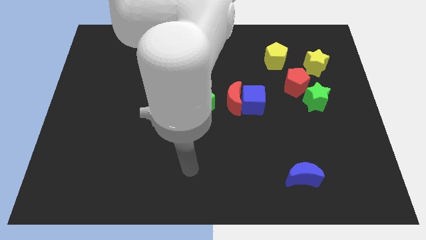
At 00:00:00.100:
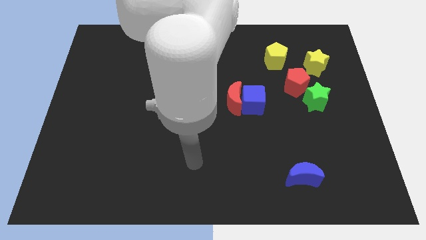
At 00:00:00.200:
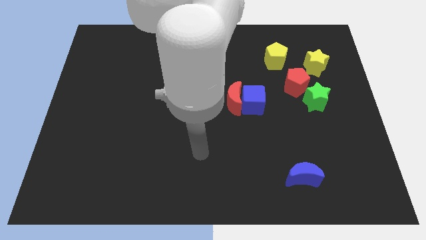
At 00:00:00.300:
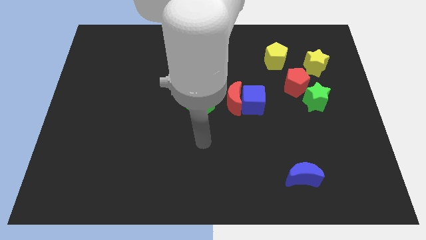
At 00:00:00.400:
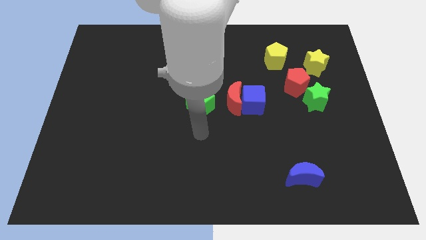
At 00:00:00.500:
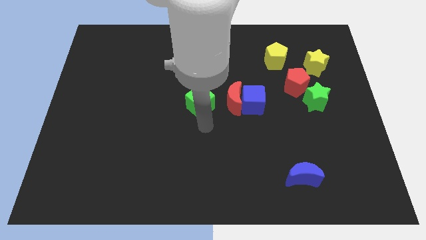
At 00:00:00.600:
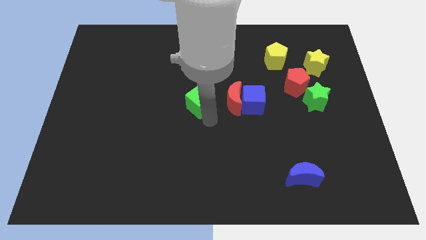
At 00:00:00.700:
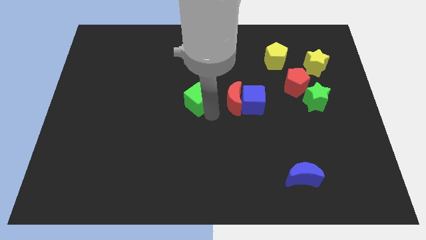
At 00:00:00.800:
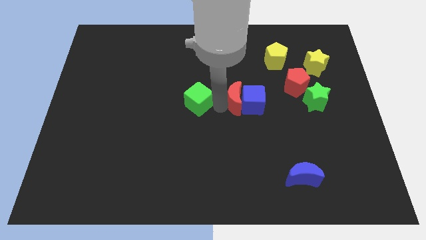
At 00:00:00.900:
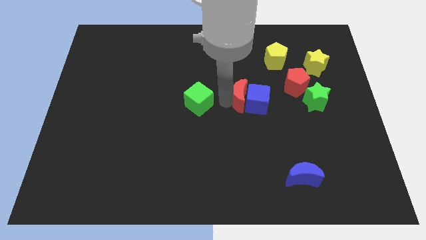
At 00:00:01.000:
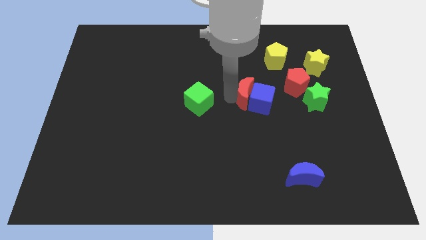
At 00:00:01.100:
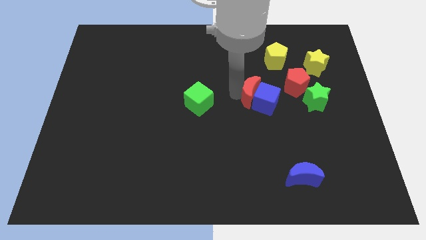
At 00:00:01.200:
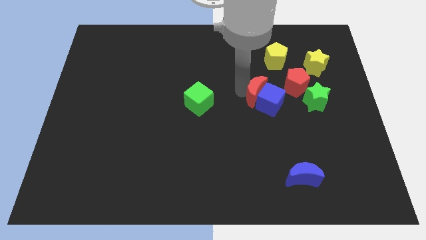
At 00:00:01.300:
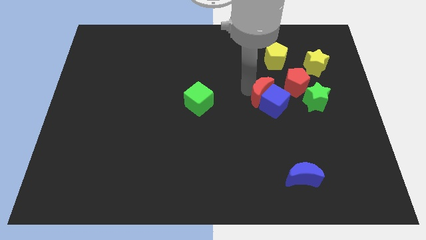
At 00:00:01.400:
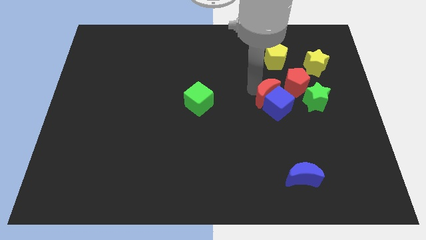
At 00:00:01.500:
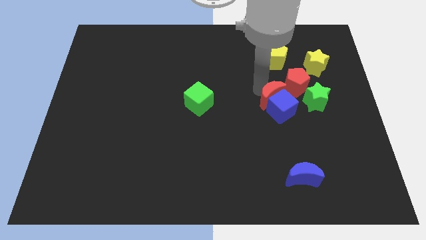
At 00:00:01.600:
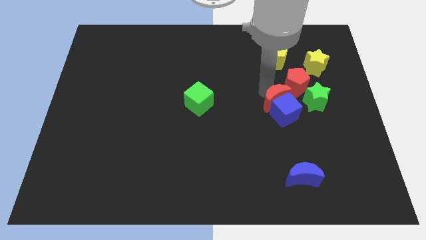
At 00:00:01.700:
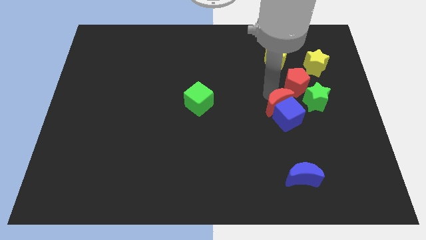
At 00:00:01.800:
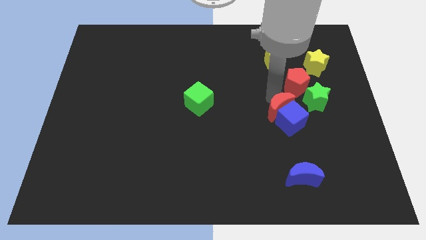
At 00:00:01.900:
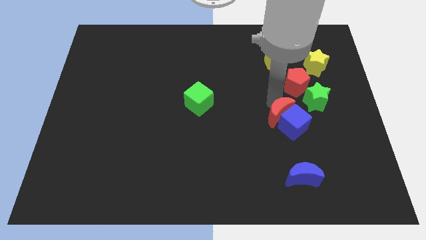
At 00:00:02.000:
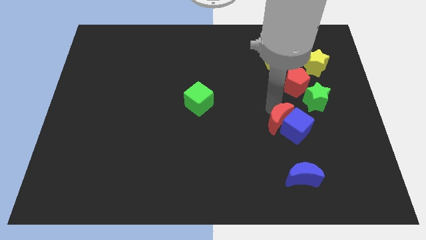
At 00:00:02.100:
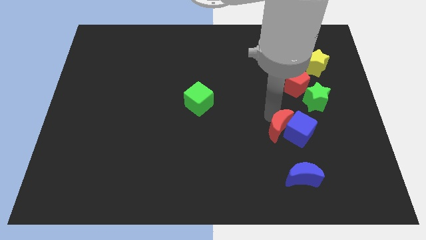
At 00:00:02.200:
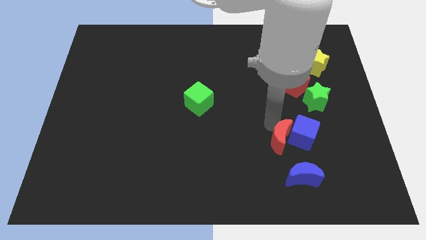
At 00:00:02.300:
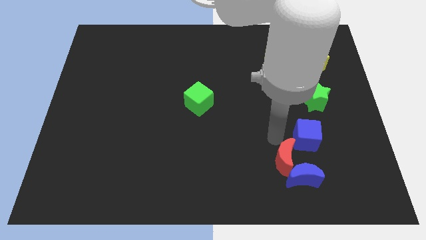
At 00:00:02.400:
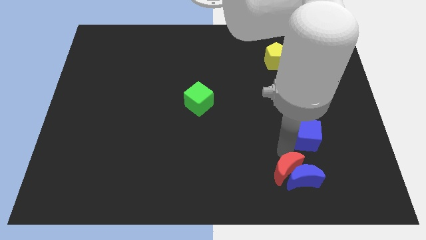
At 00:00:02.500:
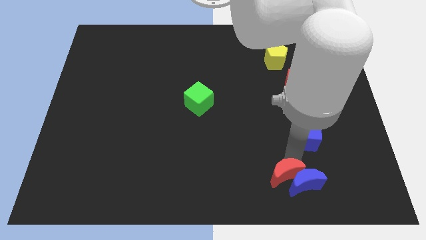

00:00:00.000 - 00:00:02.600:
pull the blue cube apart from the red moon

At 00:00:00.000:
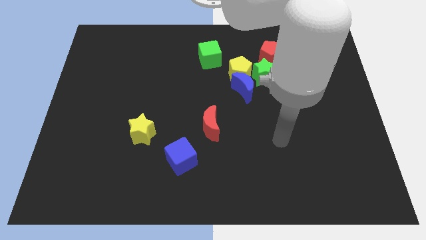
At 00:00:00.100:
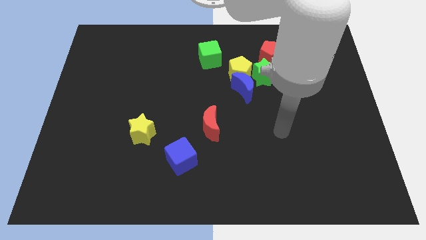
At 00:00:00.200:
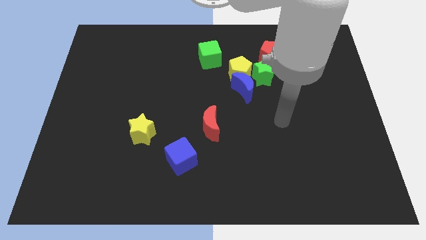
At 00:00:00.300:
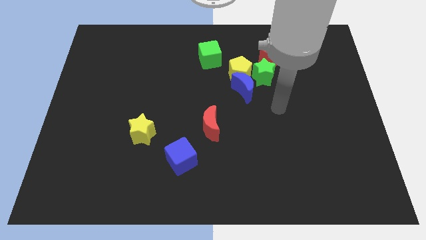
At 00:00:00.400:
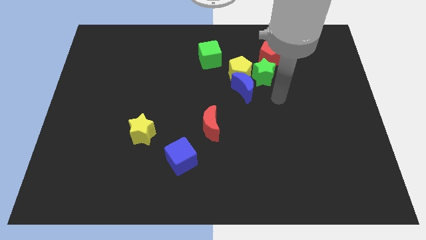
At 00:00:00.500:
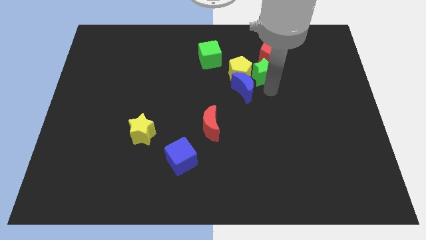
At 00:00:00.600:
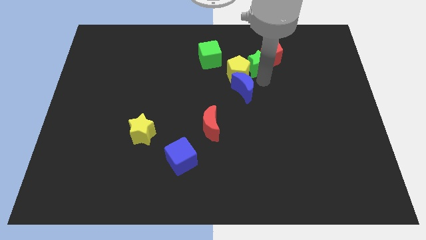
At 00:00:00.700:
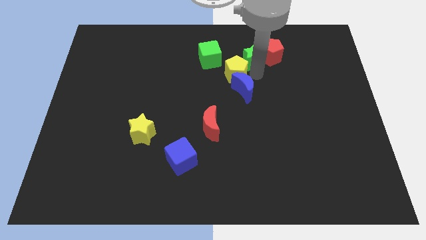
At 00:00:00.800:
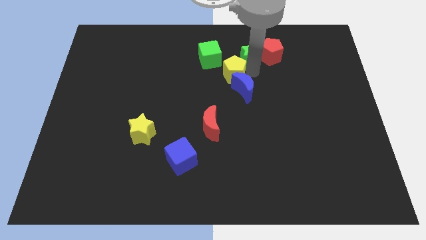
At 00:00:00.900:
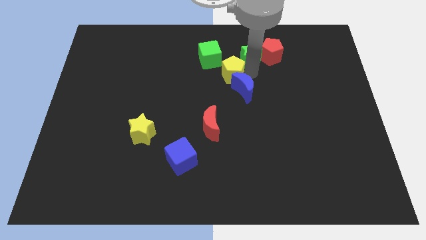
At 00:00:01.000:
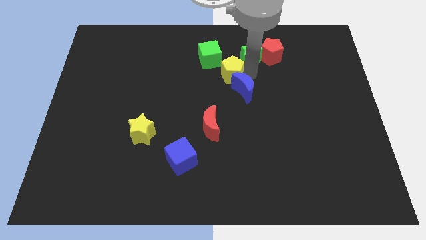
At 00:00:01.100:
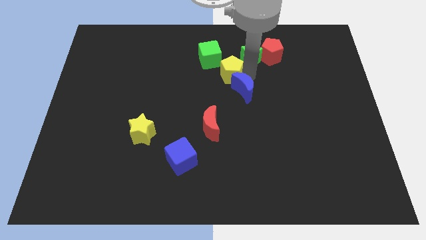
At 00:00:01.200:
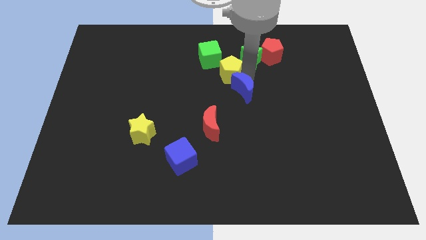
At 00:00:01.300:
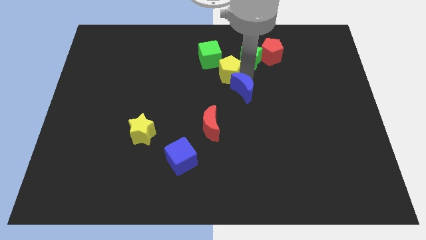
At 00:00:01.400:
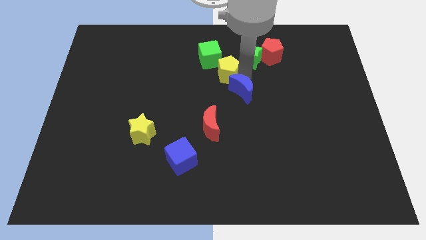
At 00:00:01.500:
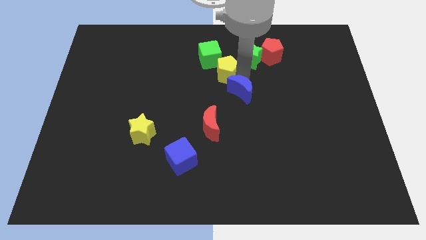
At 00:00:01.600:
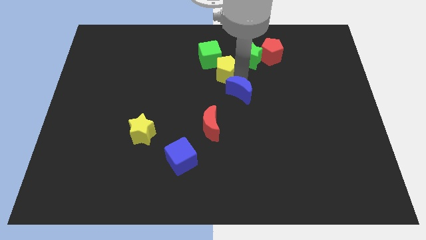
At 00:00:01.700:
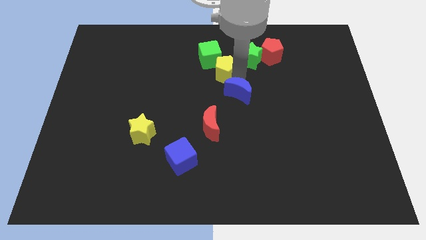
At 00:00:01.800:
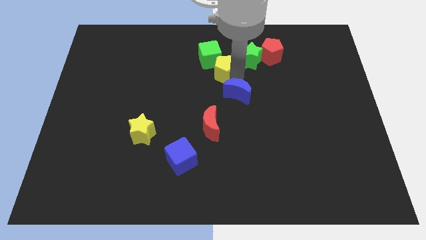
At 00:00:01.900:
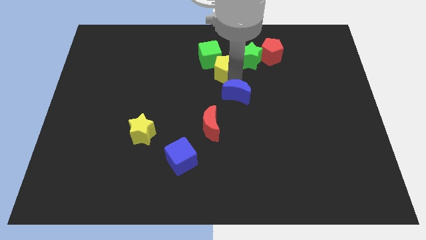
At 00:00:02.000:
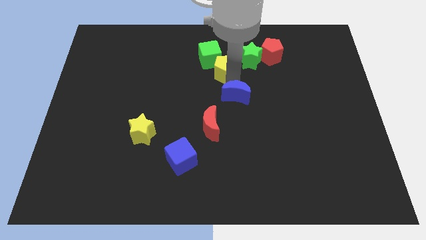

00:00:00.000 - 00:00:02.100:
pull the blue moon apart from the yellow pentagon and green star

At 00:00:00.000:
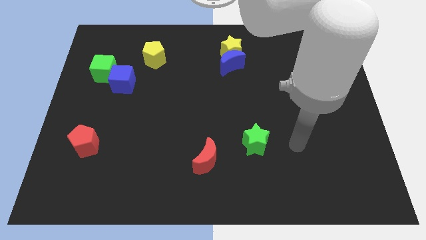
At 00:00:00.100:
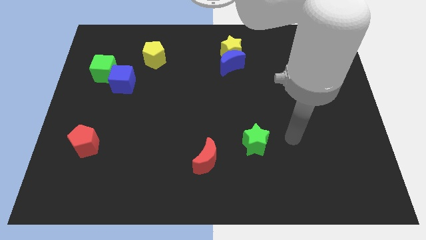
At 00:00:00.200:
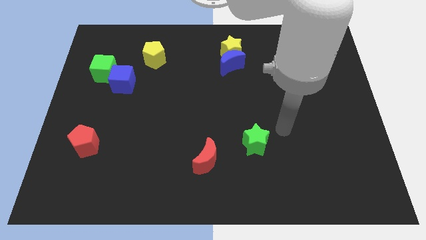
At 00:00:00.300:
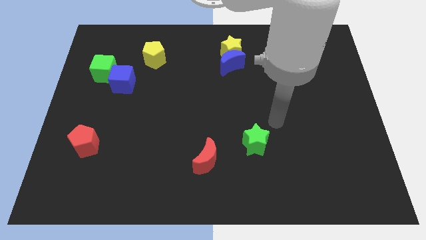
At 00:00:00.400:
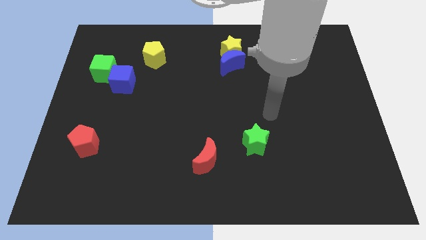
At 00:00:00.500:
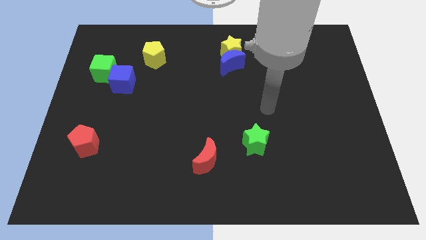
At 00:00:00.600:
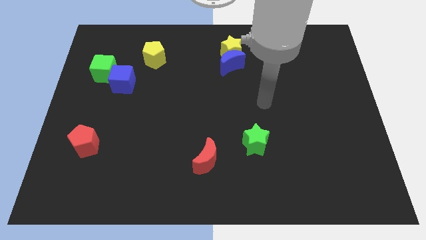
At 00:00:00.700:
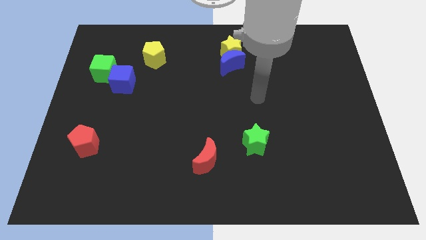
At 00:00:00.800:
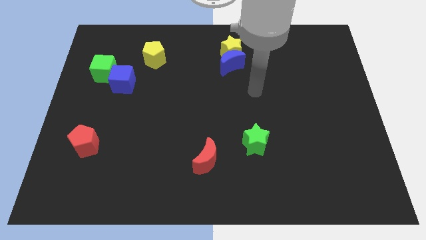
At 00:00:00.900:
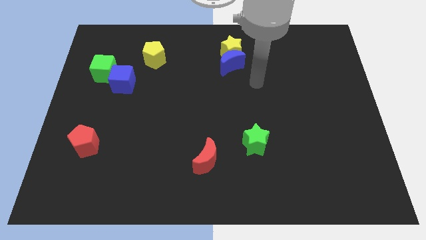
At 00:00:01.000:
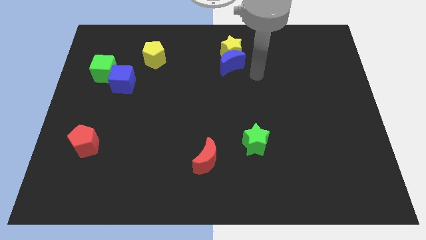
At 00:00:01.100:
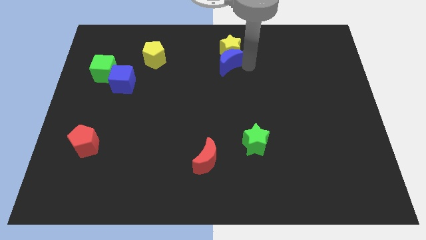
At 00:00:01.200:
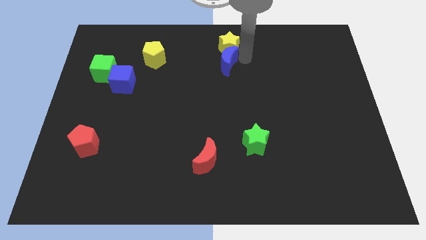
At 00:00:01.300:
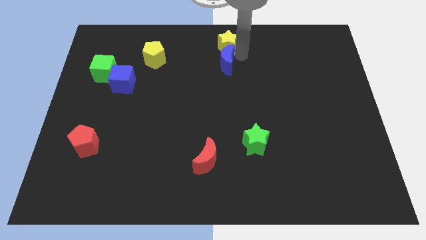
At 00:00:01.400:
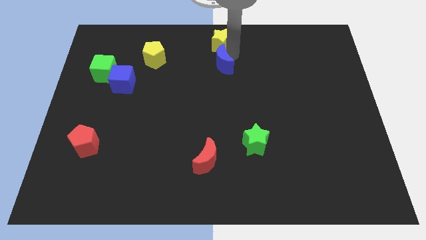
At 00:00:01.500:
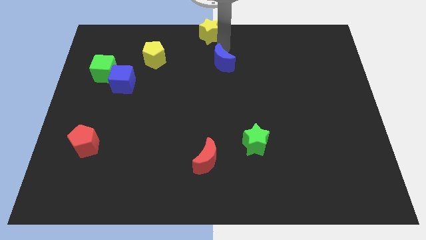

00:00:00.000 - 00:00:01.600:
move the blue moon away from the yellow star

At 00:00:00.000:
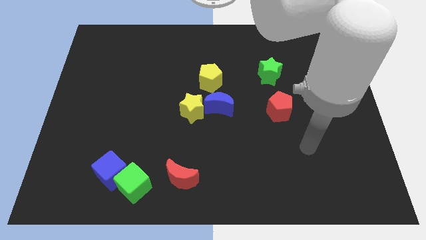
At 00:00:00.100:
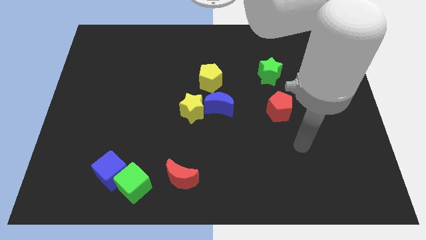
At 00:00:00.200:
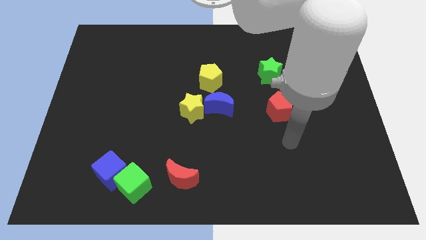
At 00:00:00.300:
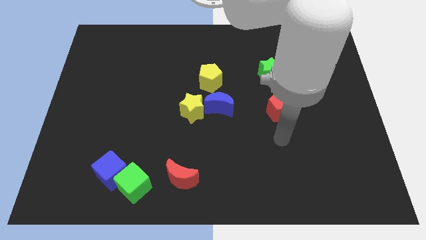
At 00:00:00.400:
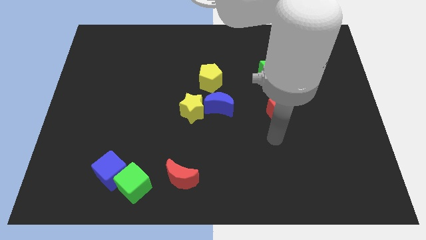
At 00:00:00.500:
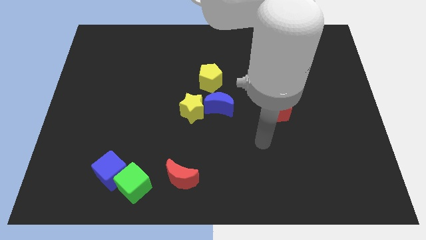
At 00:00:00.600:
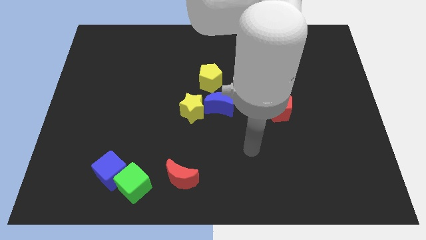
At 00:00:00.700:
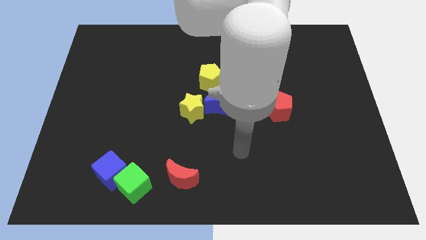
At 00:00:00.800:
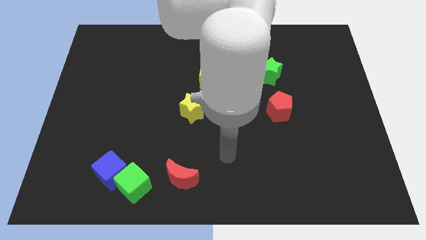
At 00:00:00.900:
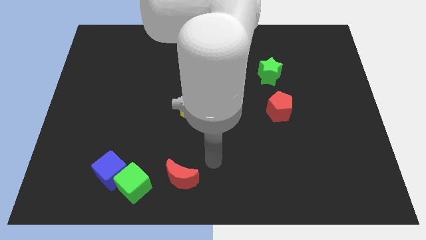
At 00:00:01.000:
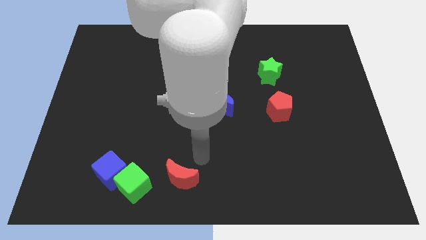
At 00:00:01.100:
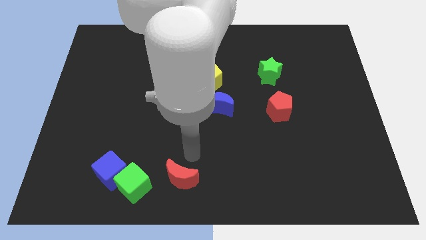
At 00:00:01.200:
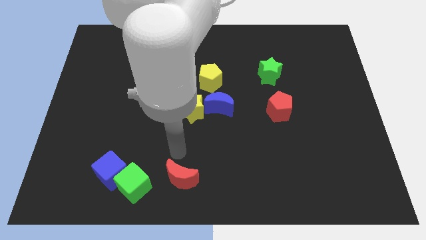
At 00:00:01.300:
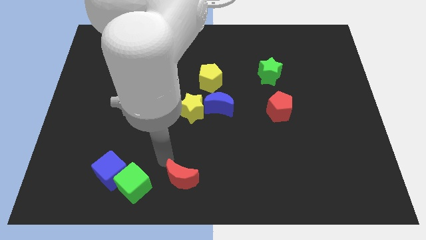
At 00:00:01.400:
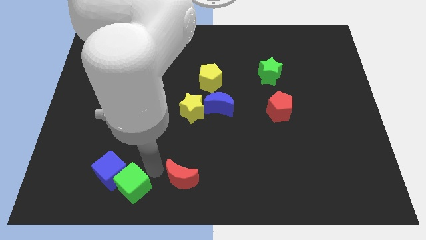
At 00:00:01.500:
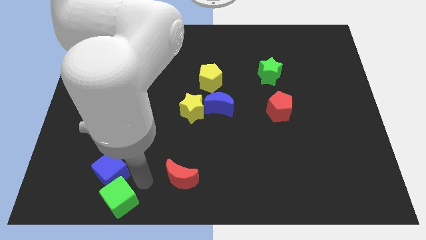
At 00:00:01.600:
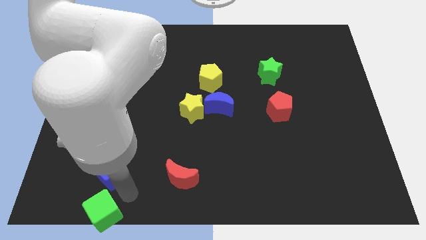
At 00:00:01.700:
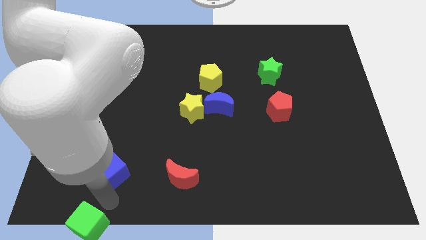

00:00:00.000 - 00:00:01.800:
pull the blue cube apart from the green cube

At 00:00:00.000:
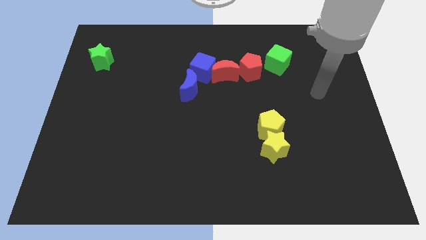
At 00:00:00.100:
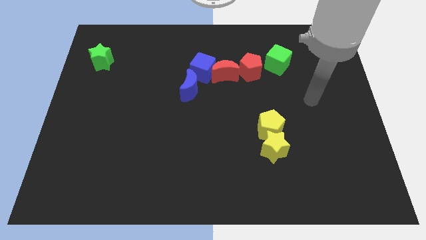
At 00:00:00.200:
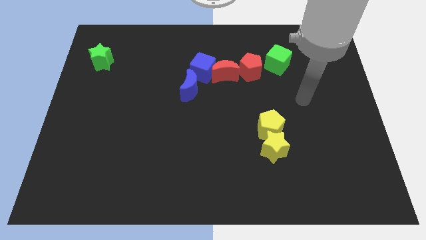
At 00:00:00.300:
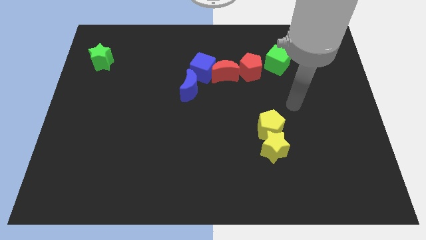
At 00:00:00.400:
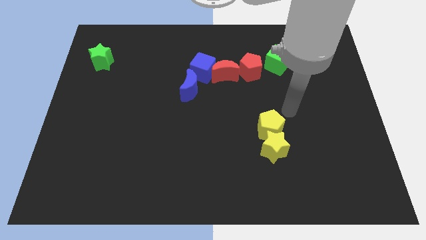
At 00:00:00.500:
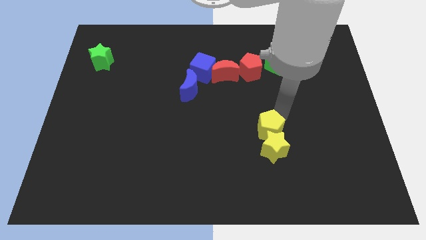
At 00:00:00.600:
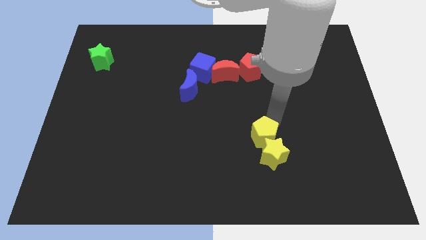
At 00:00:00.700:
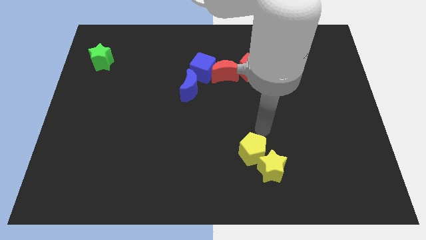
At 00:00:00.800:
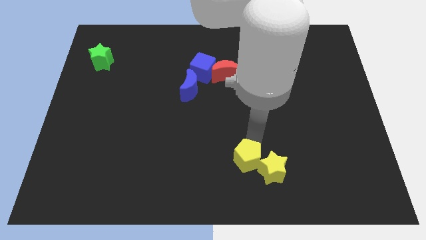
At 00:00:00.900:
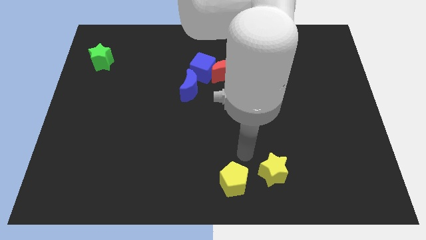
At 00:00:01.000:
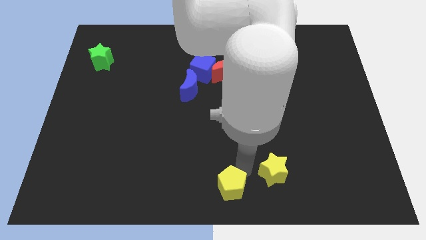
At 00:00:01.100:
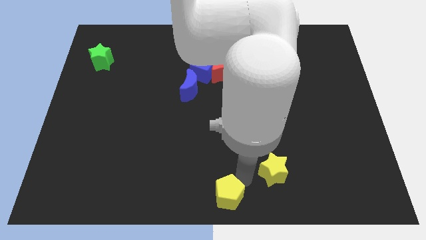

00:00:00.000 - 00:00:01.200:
move the yellow star away from the yellow pentagon
